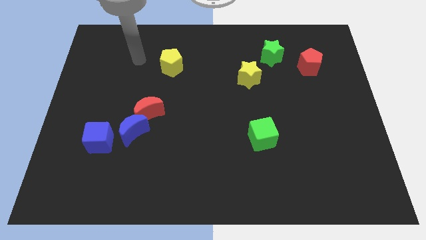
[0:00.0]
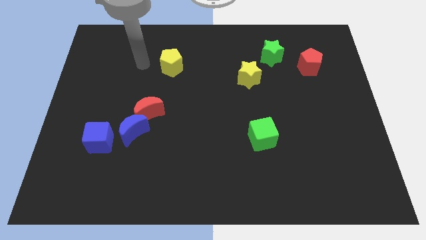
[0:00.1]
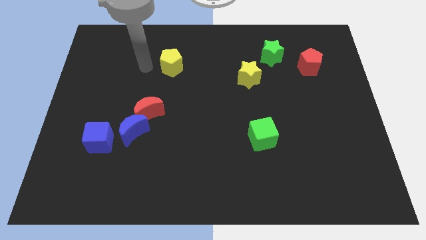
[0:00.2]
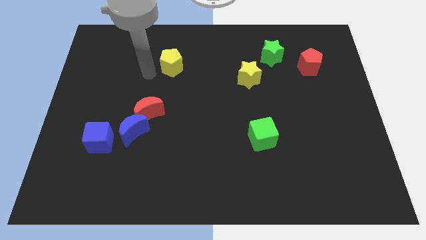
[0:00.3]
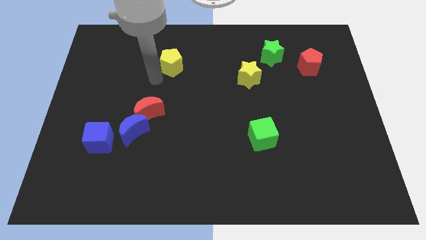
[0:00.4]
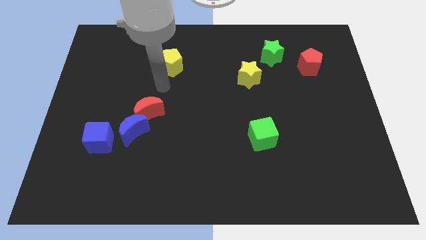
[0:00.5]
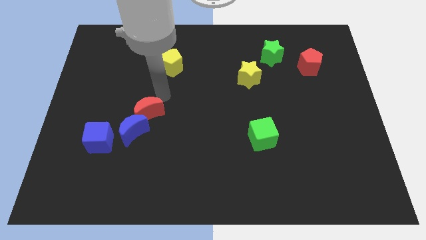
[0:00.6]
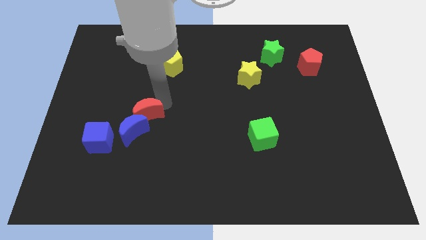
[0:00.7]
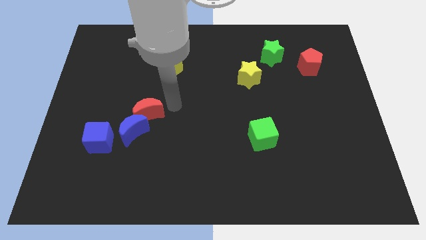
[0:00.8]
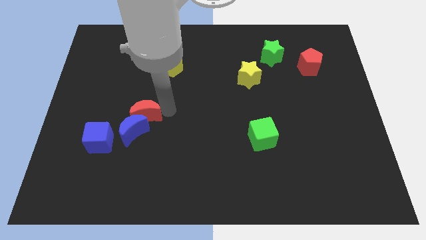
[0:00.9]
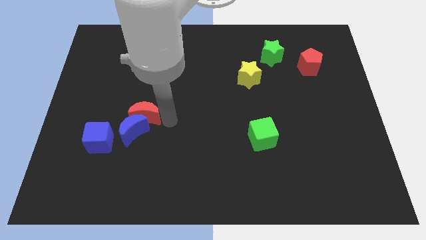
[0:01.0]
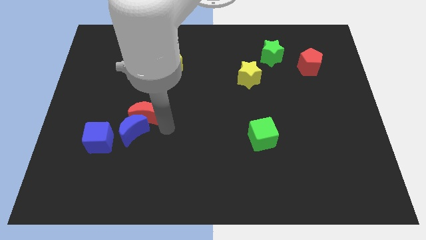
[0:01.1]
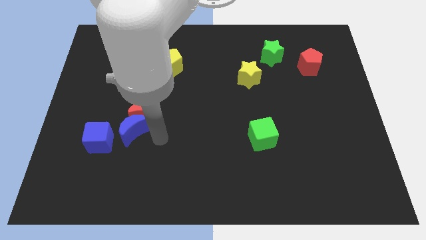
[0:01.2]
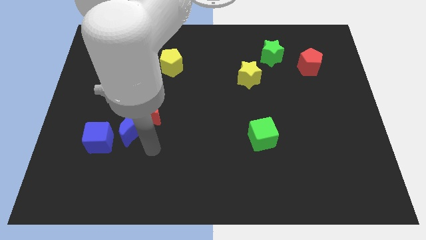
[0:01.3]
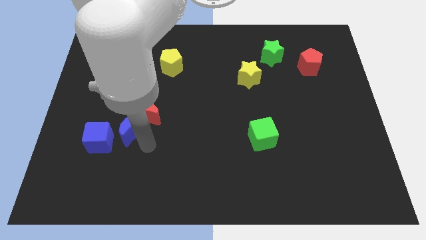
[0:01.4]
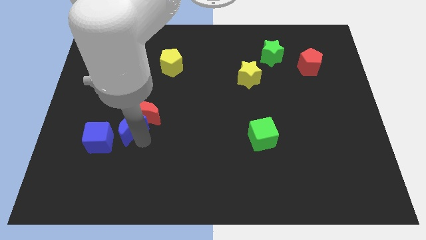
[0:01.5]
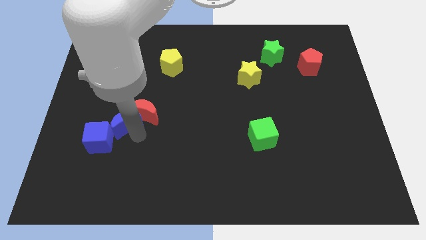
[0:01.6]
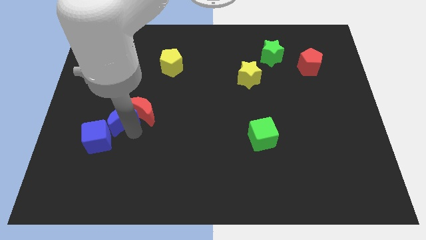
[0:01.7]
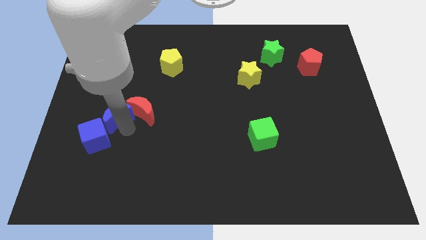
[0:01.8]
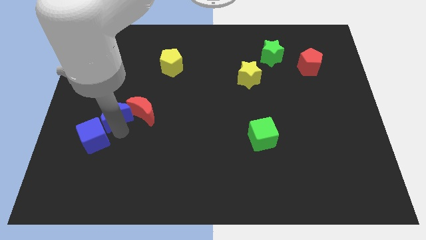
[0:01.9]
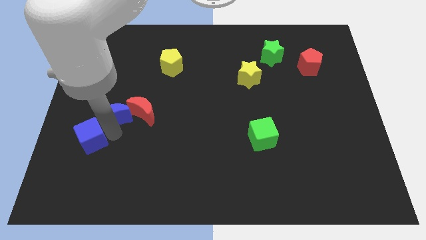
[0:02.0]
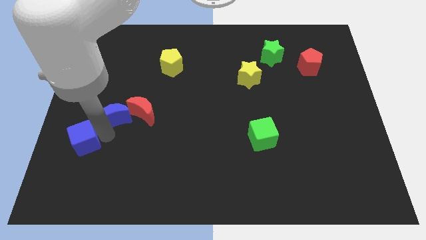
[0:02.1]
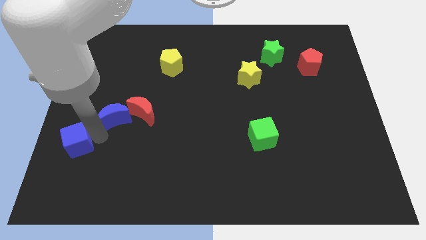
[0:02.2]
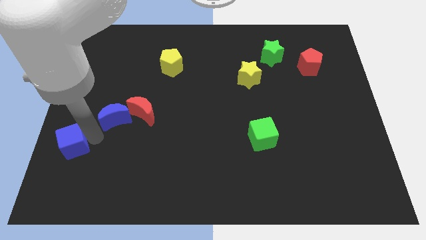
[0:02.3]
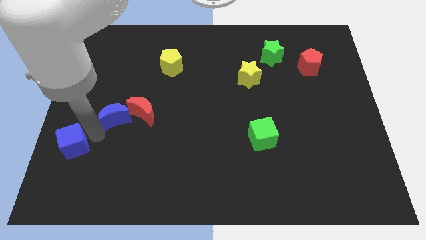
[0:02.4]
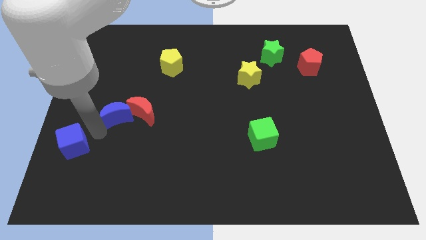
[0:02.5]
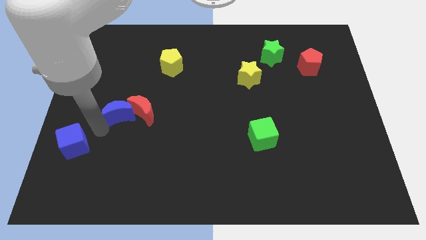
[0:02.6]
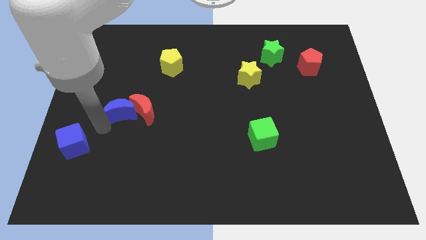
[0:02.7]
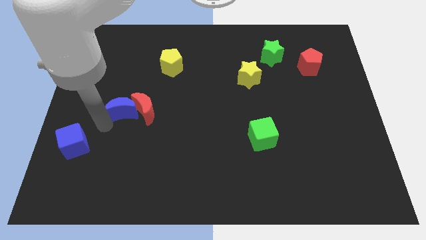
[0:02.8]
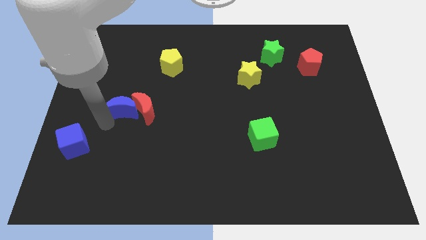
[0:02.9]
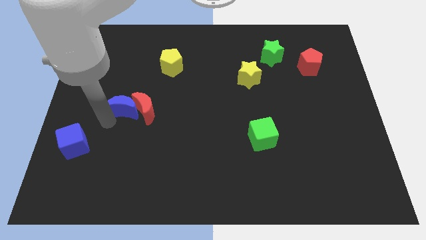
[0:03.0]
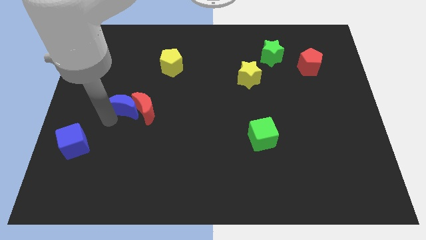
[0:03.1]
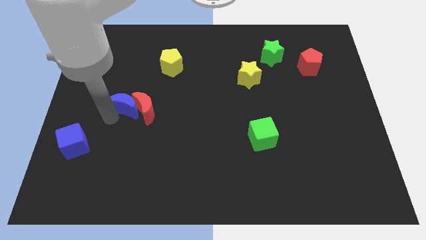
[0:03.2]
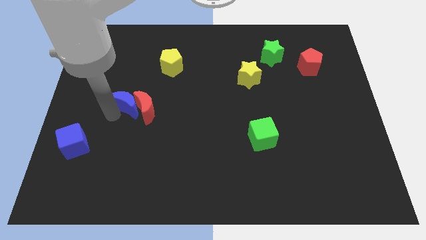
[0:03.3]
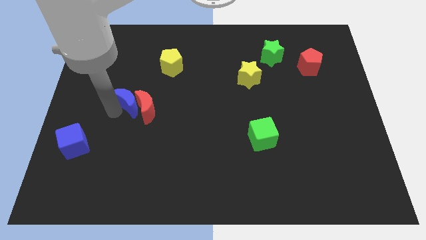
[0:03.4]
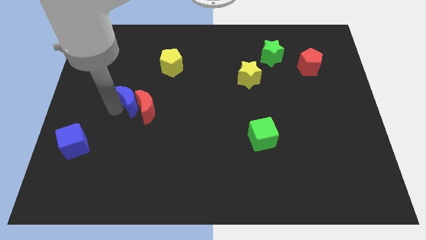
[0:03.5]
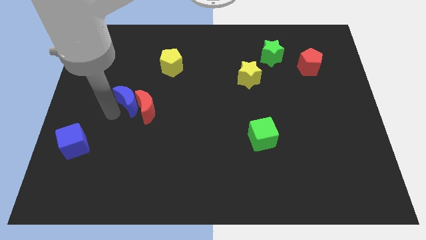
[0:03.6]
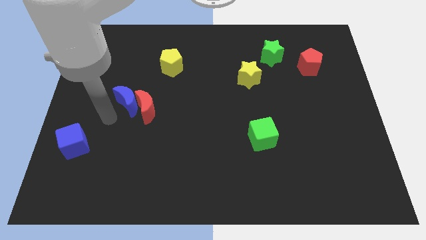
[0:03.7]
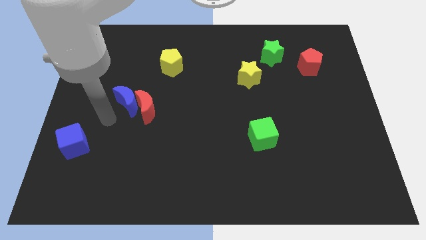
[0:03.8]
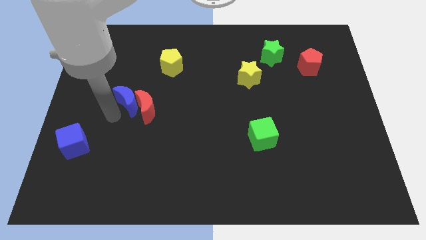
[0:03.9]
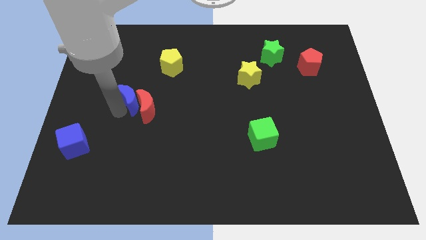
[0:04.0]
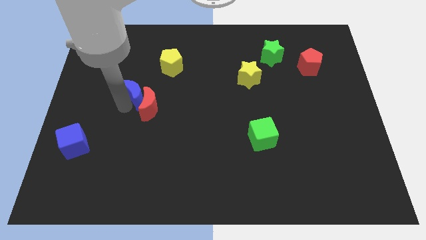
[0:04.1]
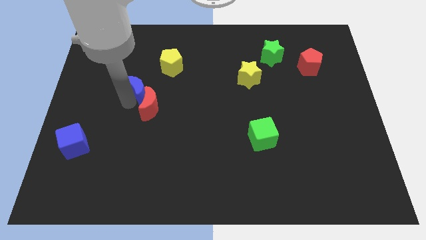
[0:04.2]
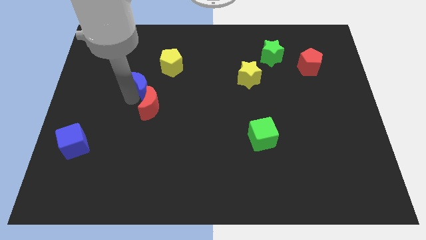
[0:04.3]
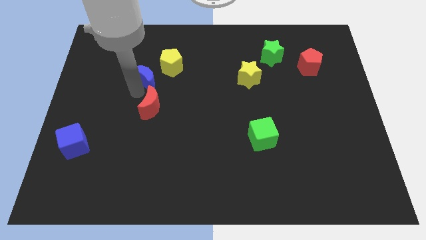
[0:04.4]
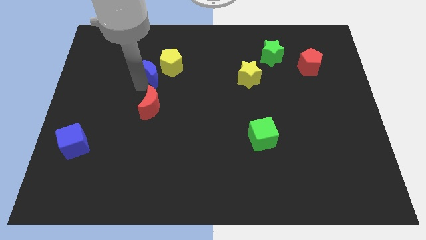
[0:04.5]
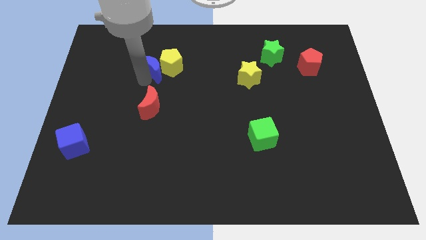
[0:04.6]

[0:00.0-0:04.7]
push the blue moon towards the yellow pentagon

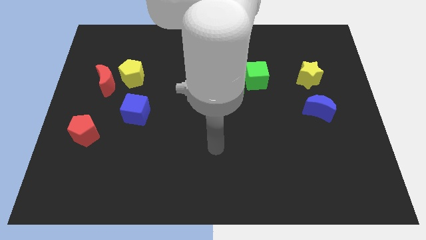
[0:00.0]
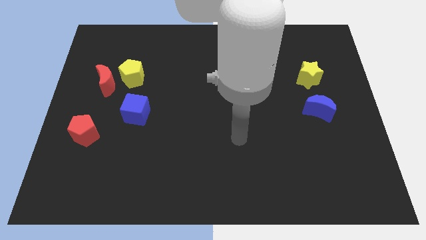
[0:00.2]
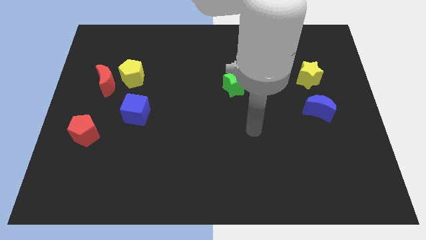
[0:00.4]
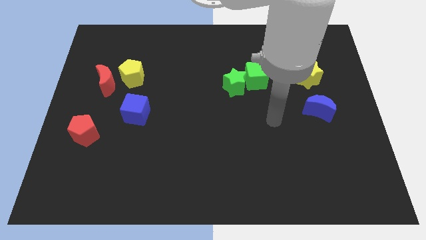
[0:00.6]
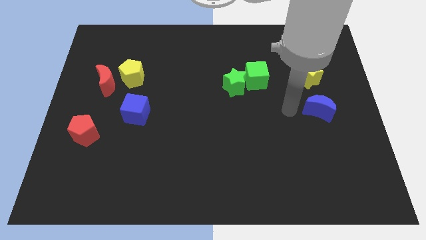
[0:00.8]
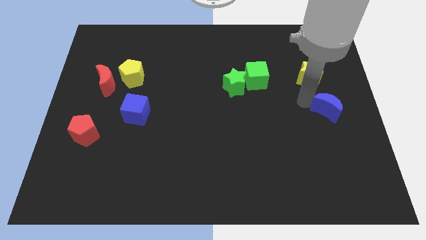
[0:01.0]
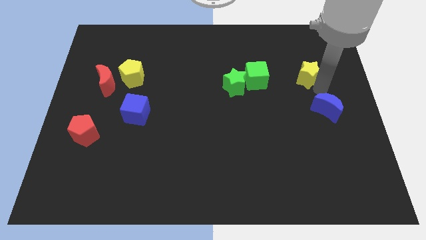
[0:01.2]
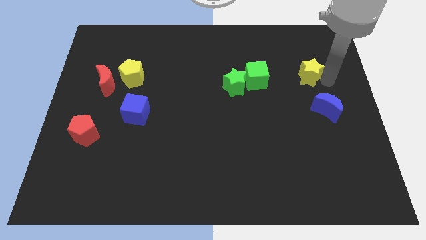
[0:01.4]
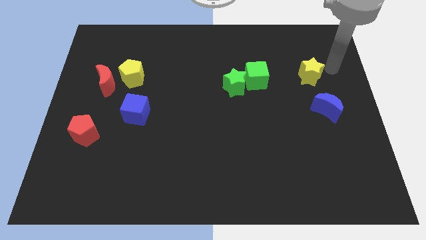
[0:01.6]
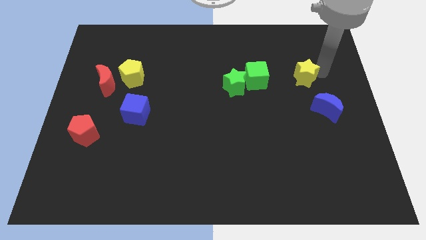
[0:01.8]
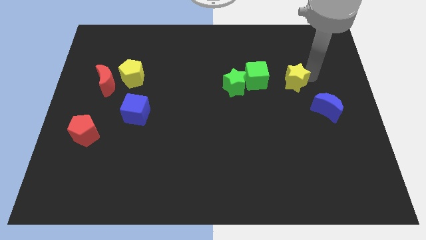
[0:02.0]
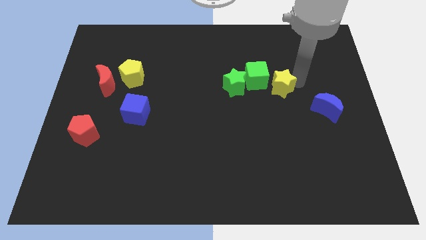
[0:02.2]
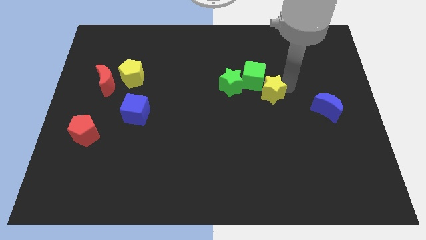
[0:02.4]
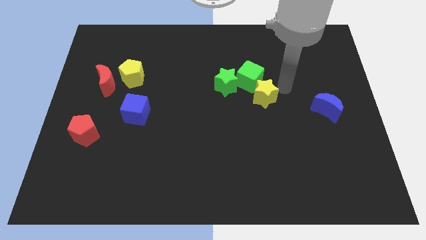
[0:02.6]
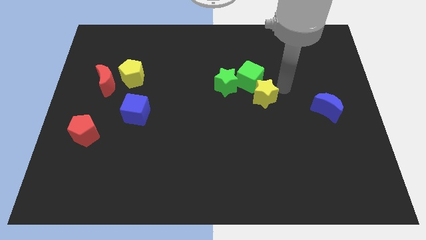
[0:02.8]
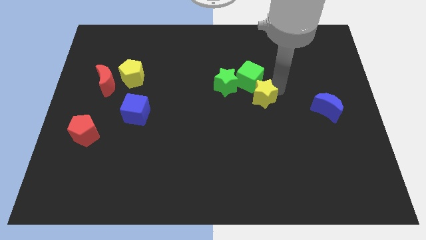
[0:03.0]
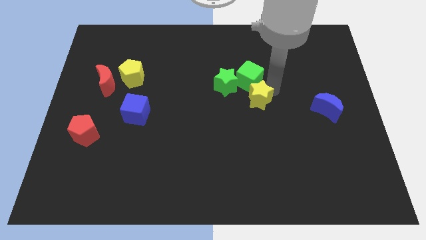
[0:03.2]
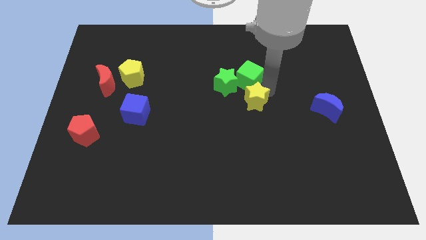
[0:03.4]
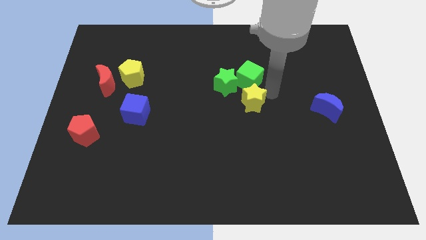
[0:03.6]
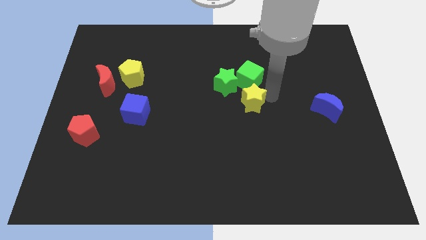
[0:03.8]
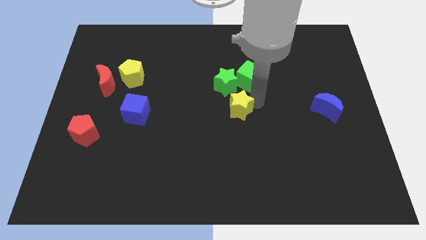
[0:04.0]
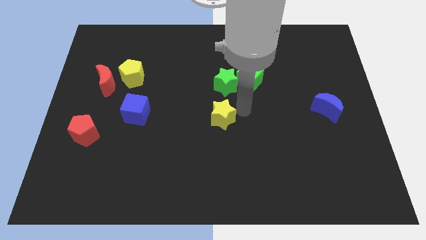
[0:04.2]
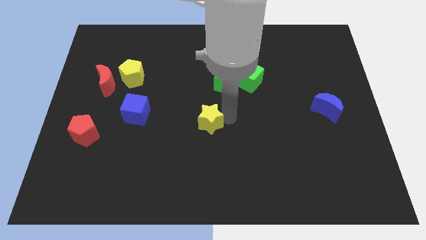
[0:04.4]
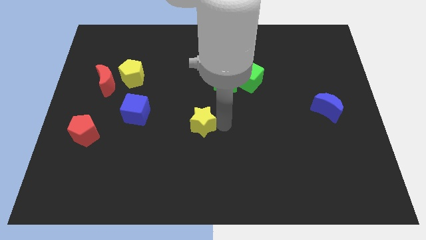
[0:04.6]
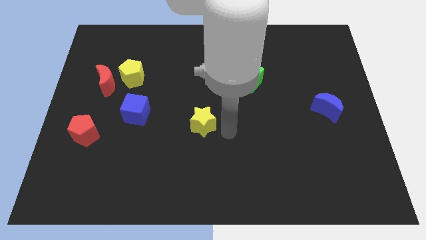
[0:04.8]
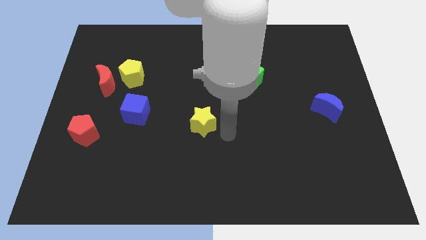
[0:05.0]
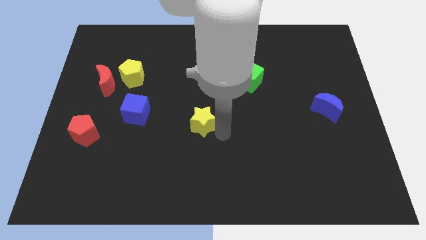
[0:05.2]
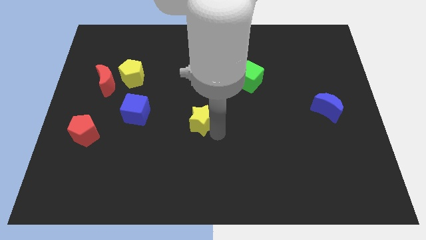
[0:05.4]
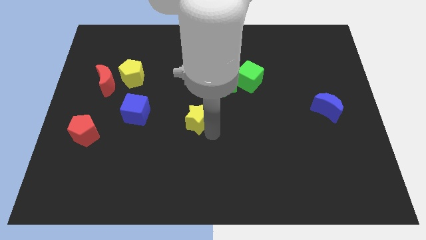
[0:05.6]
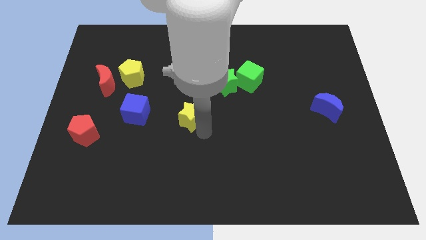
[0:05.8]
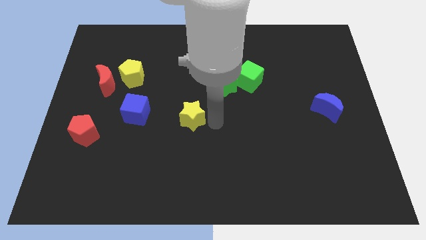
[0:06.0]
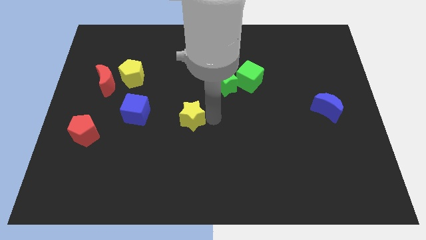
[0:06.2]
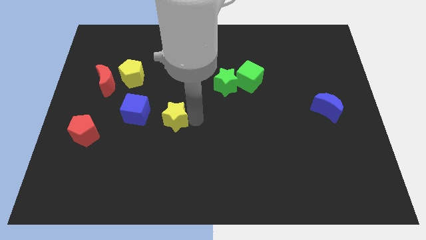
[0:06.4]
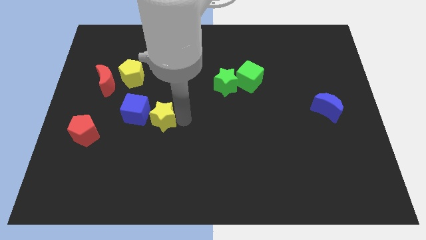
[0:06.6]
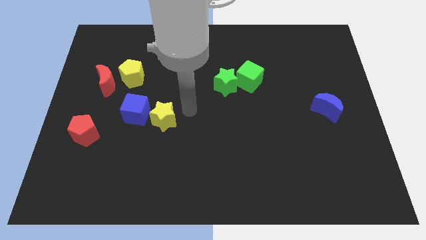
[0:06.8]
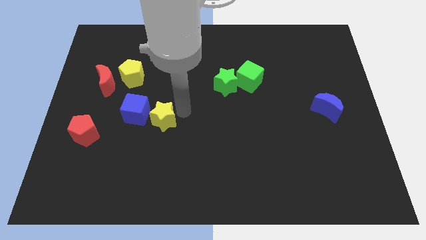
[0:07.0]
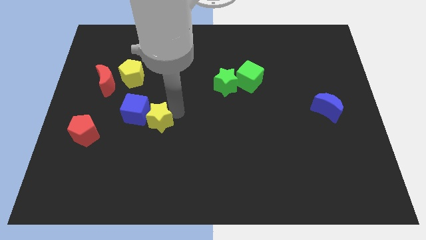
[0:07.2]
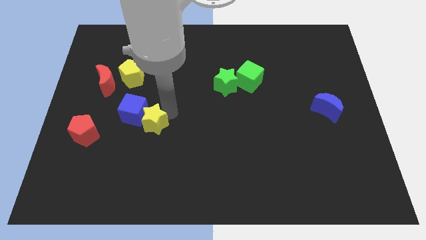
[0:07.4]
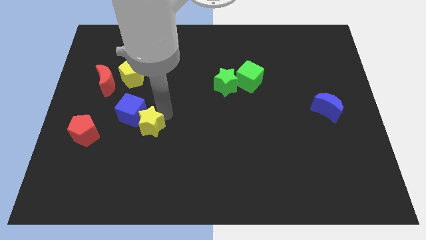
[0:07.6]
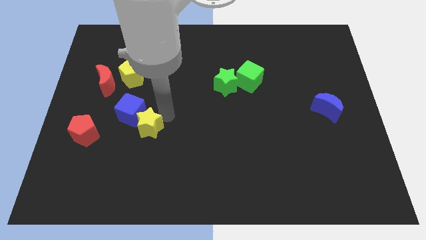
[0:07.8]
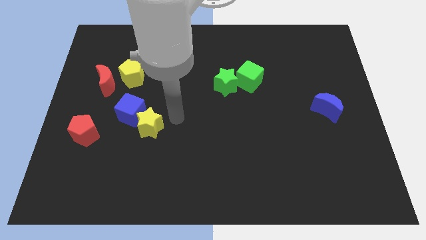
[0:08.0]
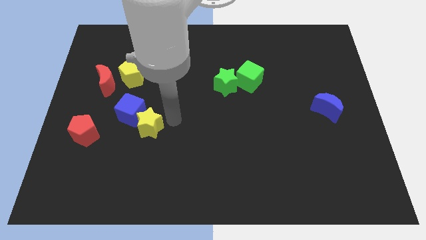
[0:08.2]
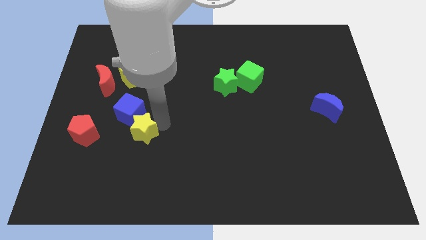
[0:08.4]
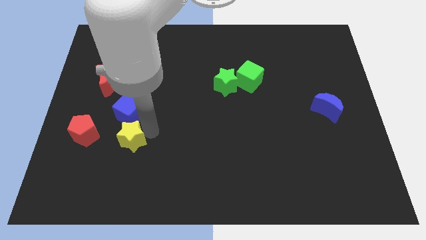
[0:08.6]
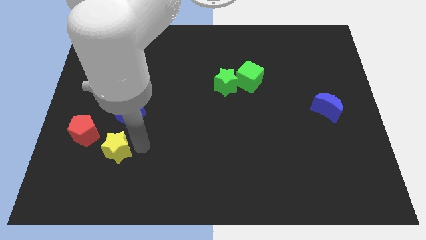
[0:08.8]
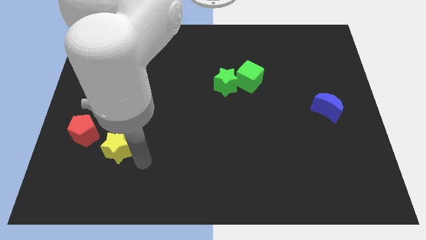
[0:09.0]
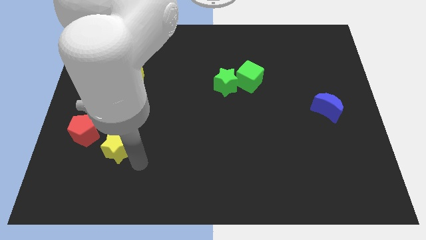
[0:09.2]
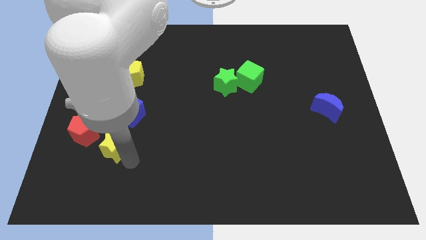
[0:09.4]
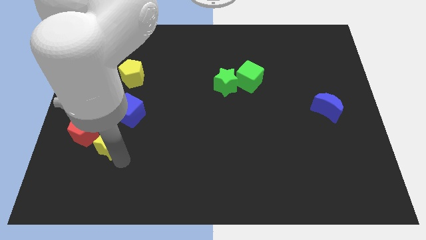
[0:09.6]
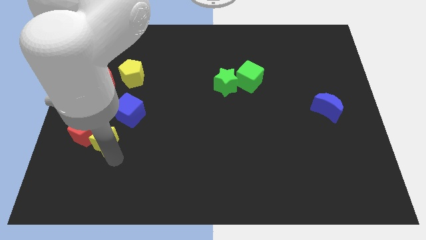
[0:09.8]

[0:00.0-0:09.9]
slide the yellow star to the red pentagon
